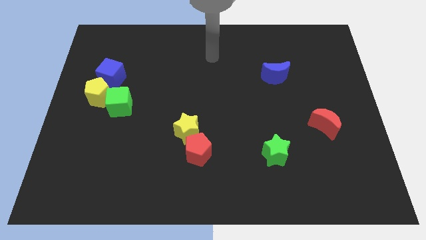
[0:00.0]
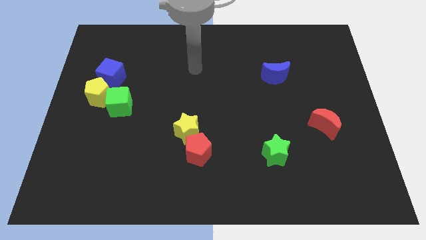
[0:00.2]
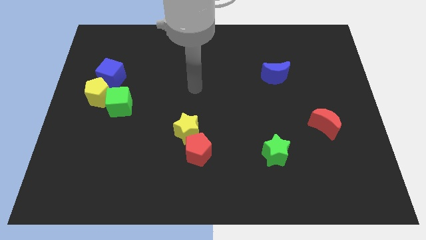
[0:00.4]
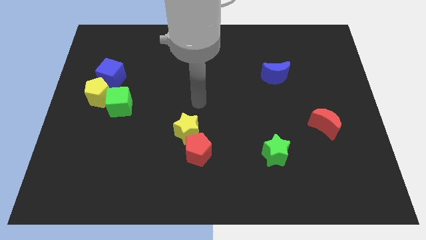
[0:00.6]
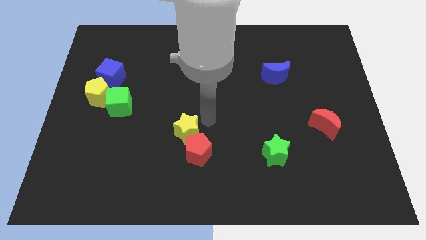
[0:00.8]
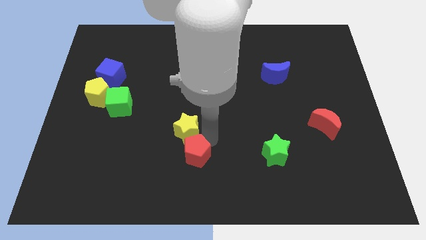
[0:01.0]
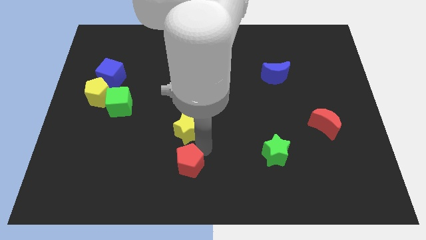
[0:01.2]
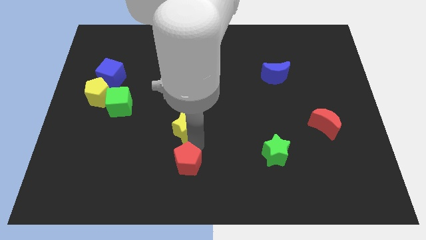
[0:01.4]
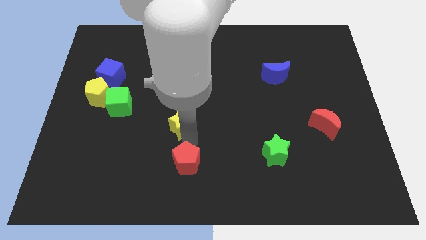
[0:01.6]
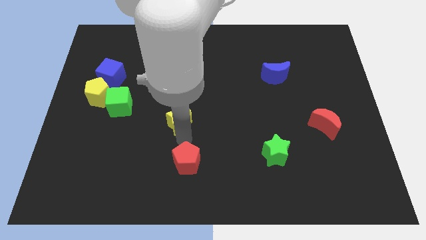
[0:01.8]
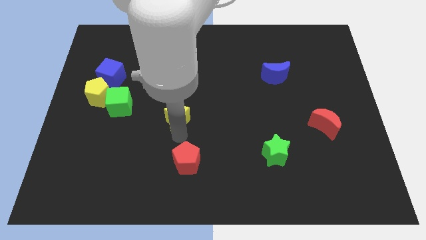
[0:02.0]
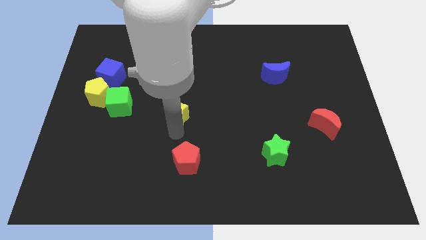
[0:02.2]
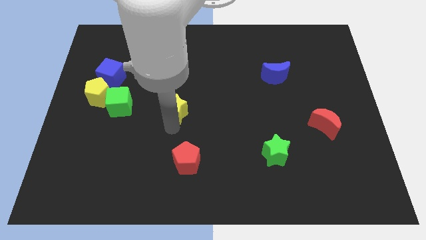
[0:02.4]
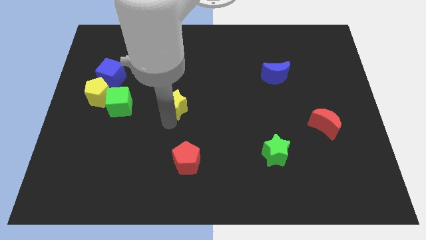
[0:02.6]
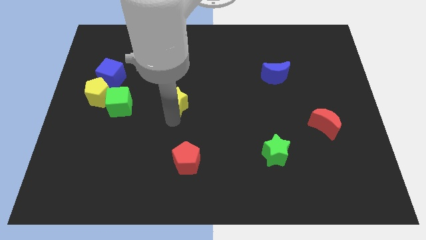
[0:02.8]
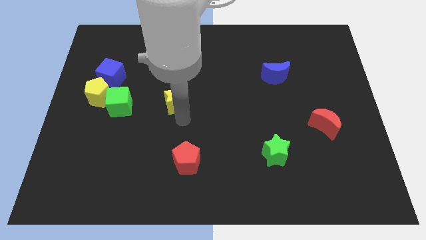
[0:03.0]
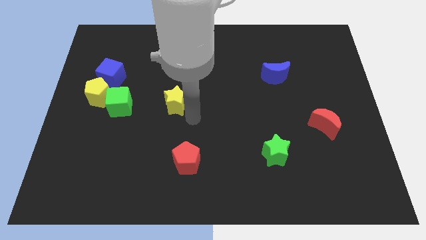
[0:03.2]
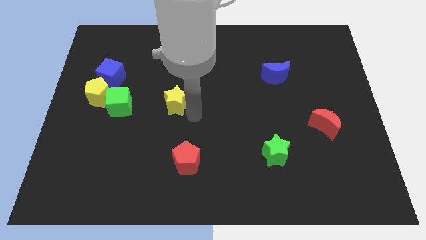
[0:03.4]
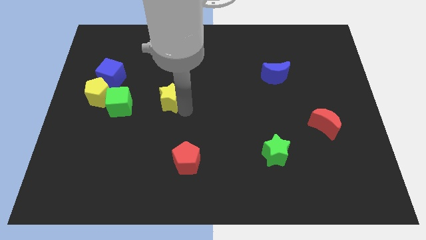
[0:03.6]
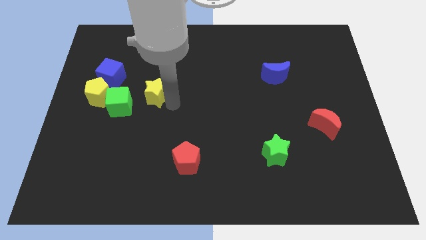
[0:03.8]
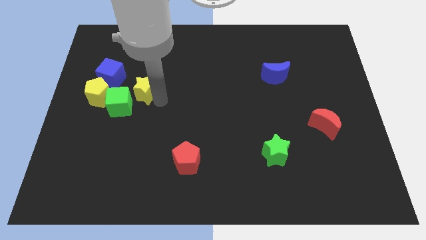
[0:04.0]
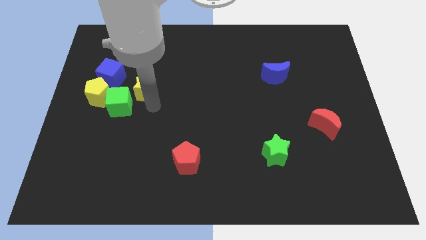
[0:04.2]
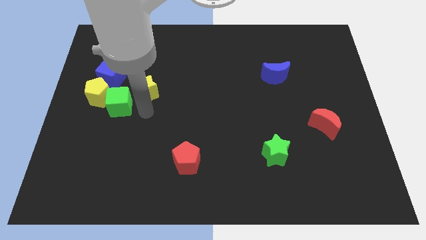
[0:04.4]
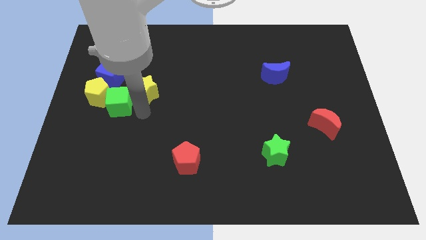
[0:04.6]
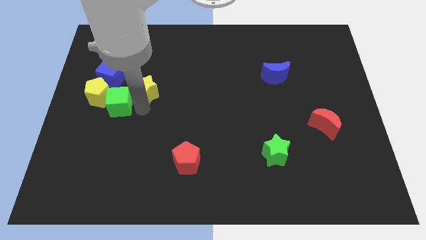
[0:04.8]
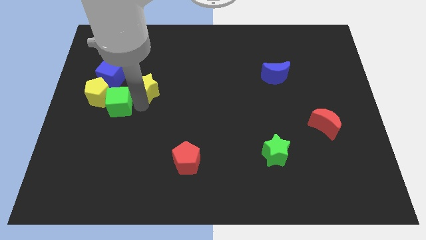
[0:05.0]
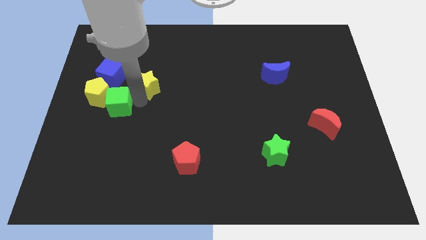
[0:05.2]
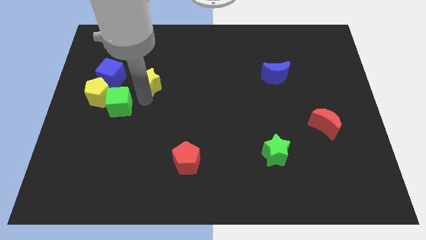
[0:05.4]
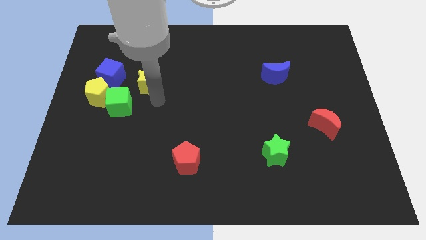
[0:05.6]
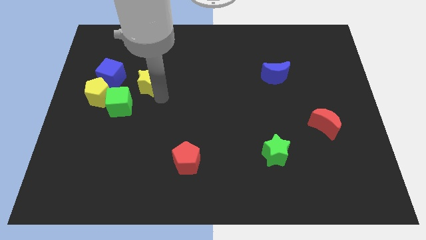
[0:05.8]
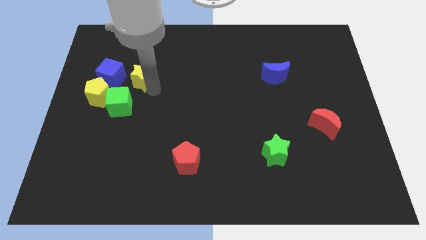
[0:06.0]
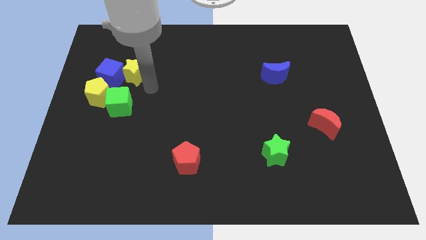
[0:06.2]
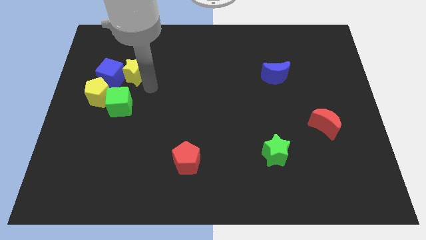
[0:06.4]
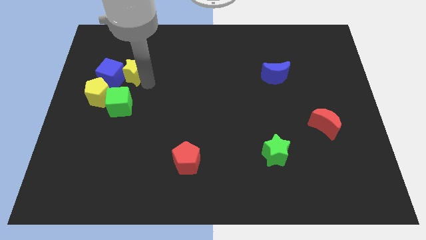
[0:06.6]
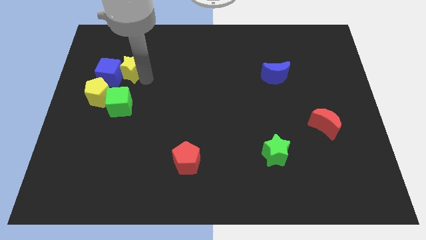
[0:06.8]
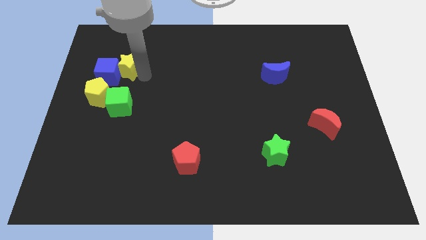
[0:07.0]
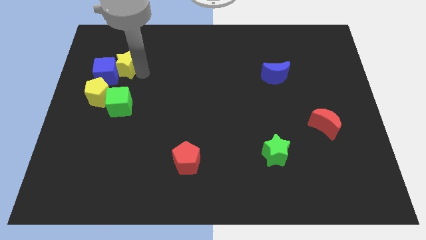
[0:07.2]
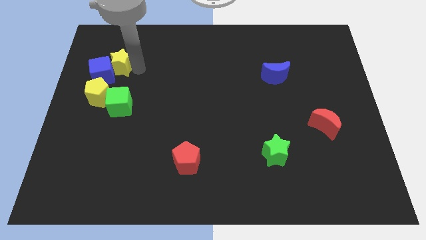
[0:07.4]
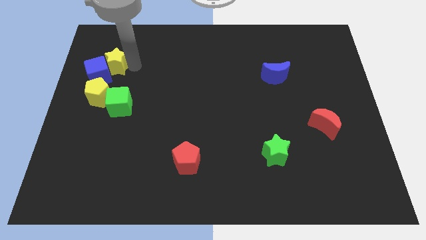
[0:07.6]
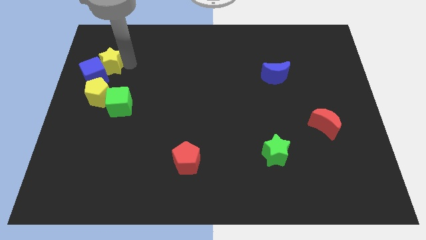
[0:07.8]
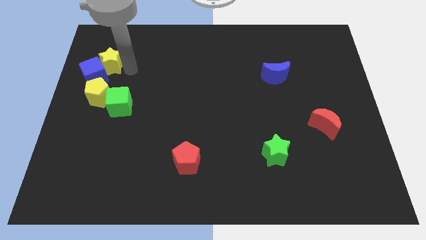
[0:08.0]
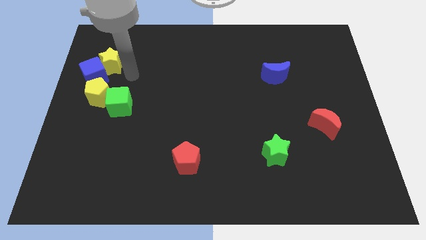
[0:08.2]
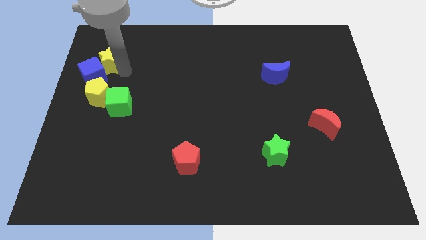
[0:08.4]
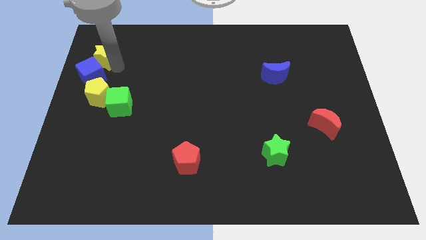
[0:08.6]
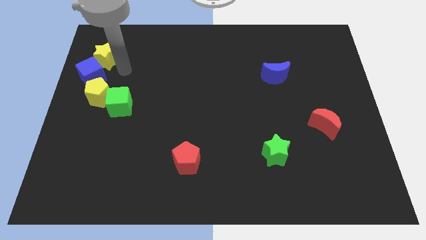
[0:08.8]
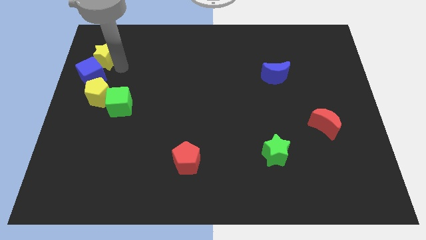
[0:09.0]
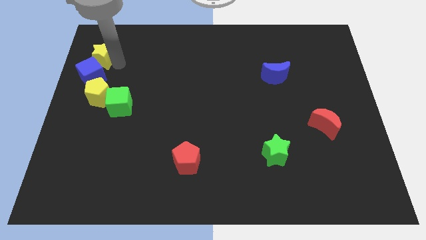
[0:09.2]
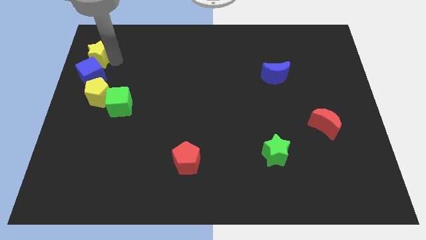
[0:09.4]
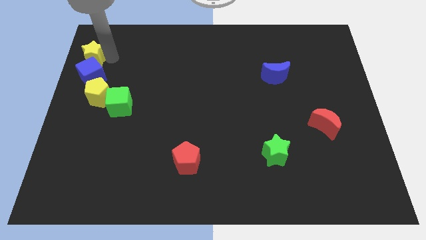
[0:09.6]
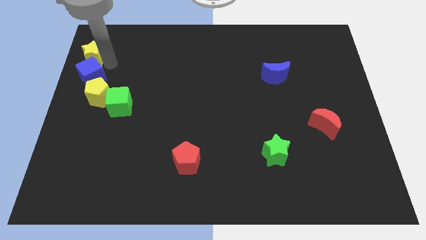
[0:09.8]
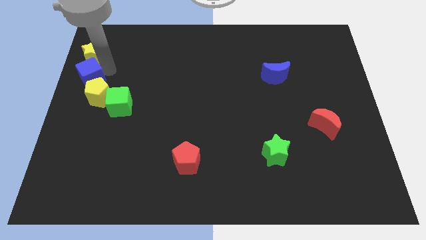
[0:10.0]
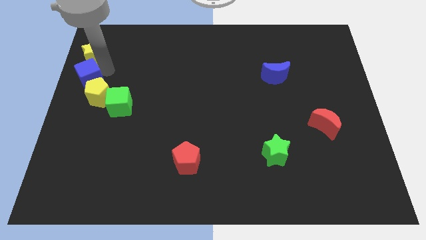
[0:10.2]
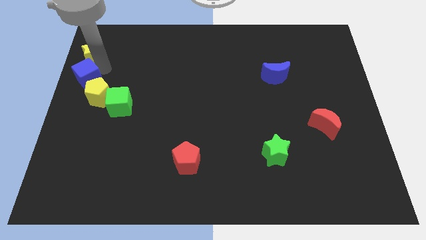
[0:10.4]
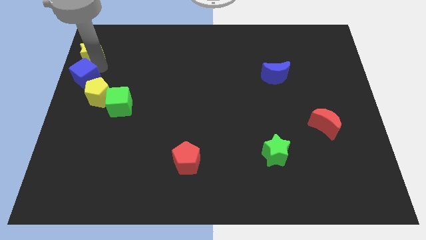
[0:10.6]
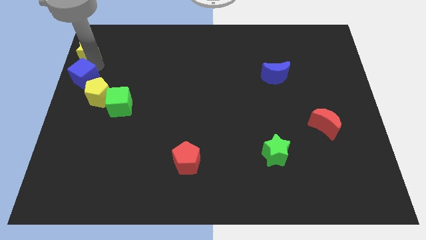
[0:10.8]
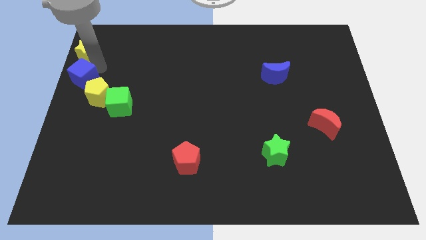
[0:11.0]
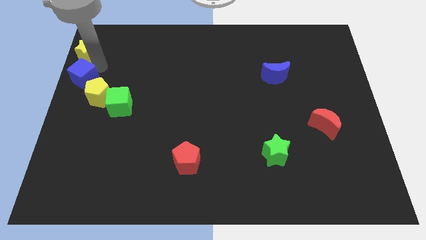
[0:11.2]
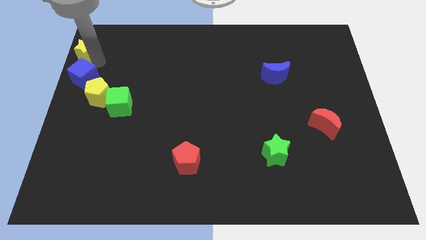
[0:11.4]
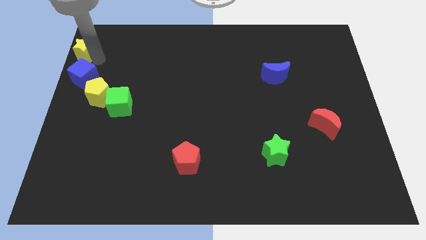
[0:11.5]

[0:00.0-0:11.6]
slide the yellow star to the top left of the board

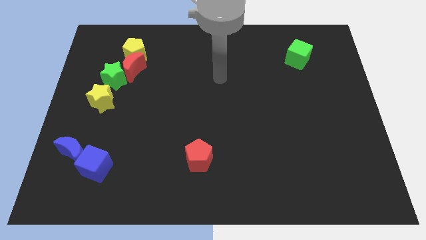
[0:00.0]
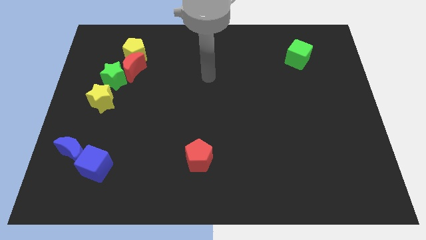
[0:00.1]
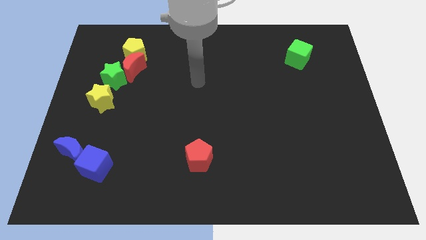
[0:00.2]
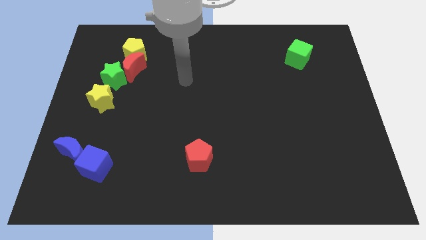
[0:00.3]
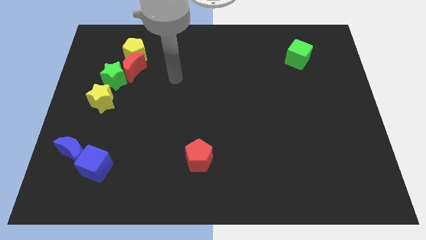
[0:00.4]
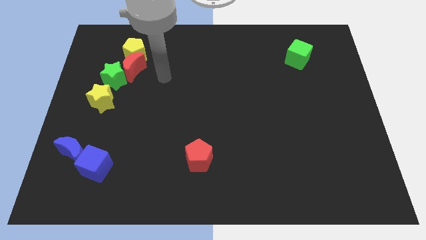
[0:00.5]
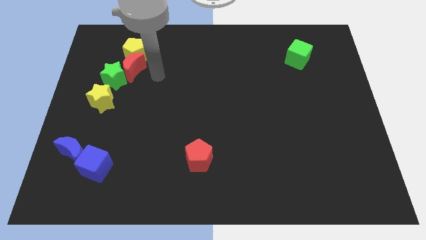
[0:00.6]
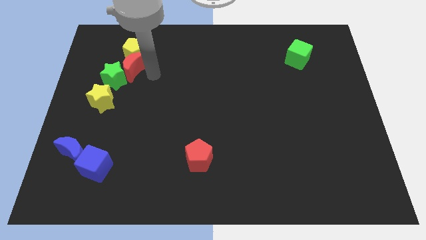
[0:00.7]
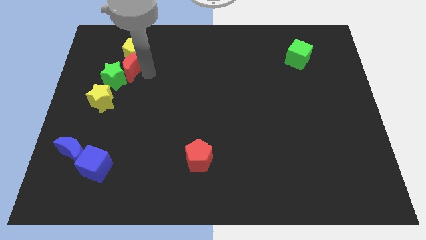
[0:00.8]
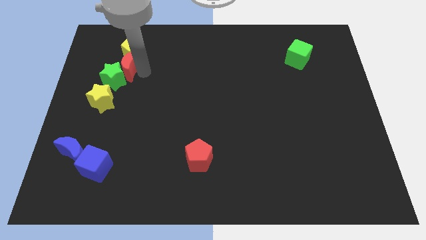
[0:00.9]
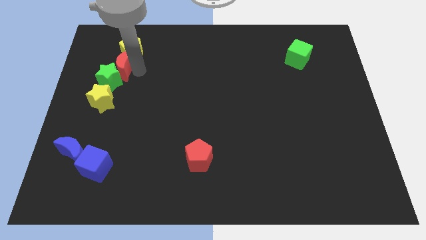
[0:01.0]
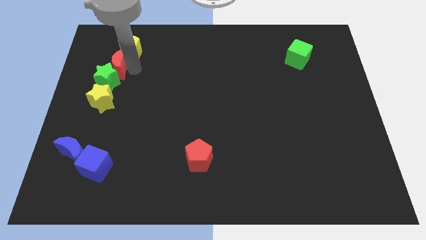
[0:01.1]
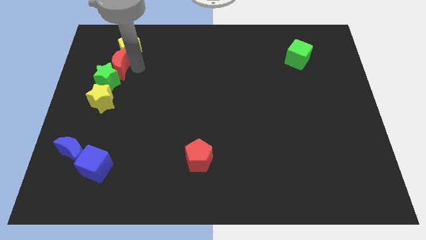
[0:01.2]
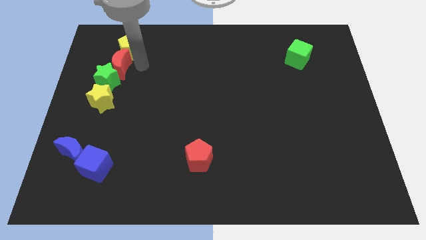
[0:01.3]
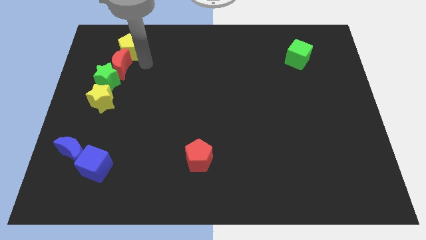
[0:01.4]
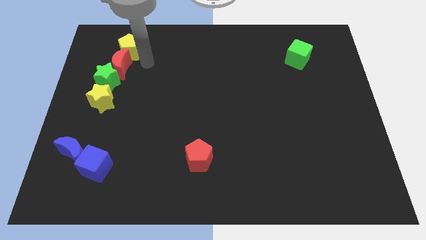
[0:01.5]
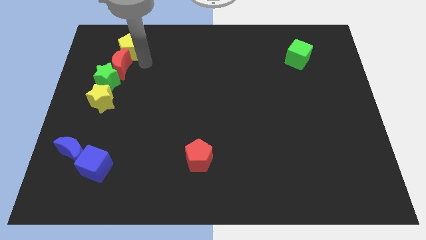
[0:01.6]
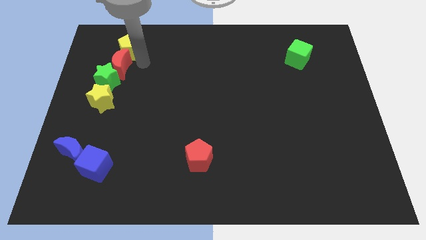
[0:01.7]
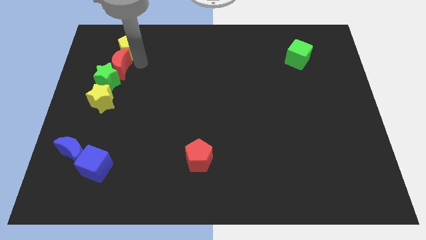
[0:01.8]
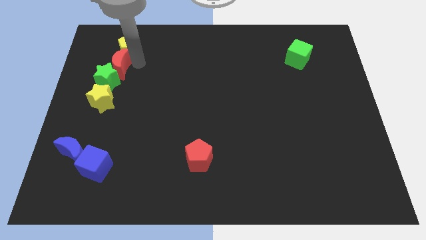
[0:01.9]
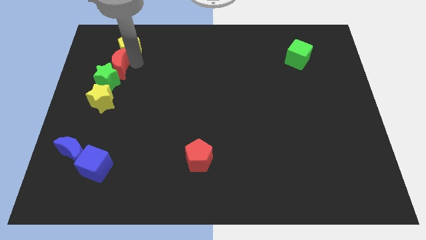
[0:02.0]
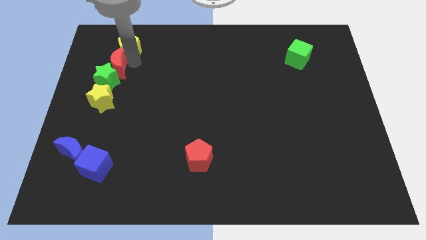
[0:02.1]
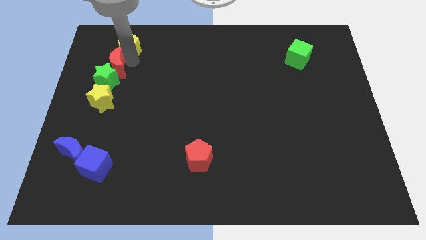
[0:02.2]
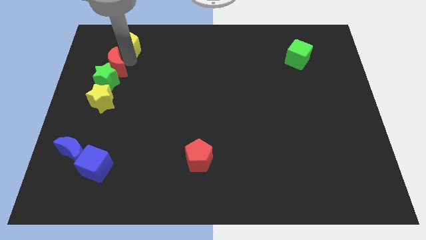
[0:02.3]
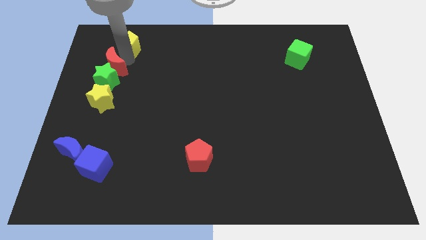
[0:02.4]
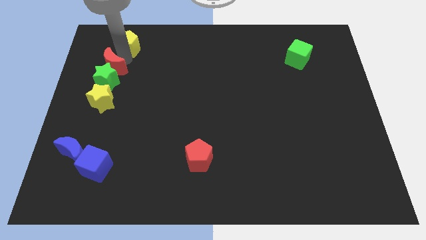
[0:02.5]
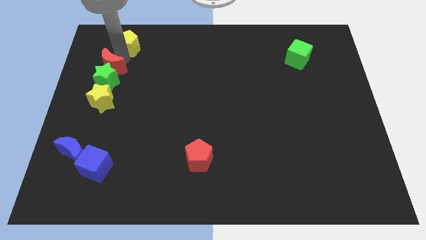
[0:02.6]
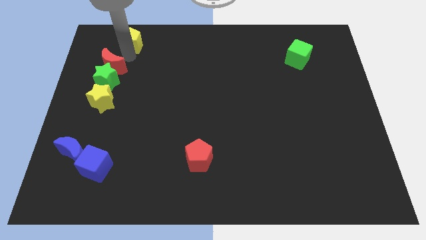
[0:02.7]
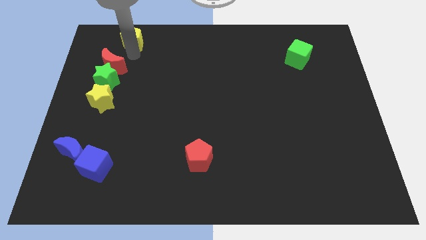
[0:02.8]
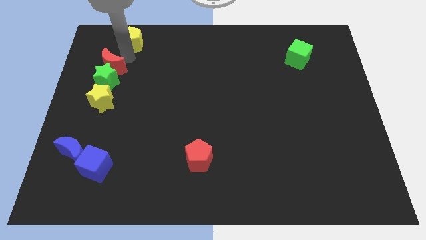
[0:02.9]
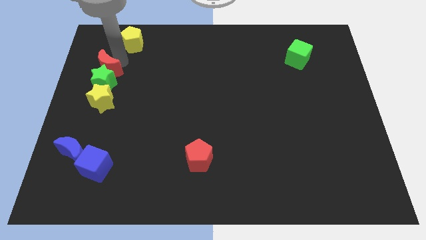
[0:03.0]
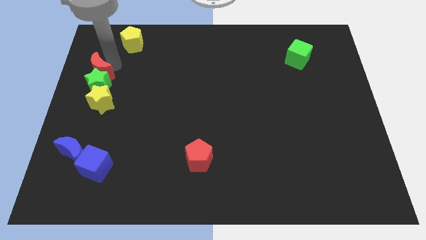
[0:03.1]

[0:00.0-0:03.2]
push the red moon to the left side of the board
